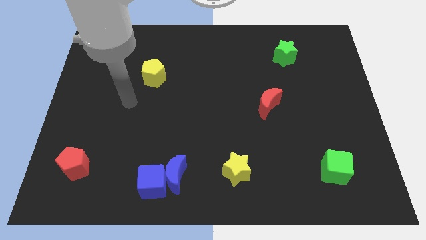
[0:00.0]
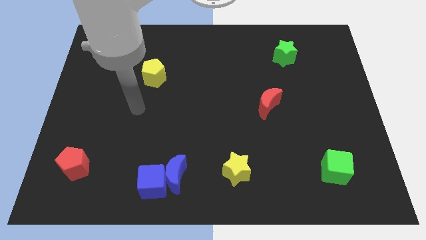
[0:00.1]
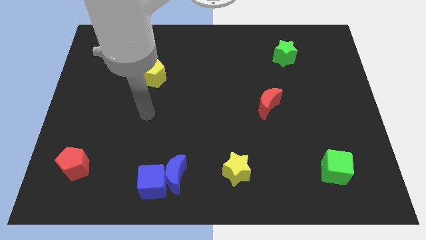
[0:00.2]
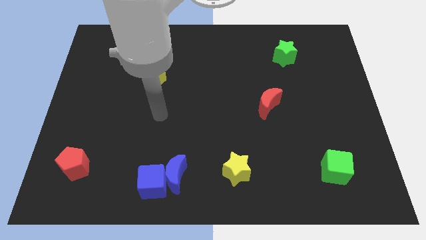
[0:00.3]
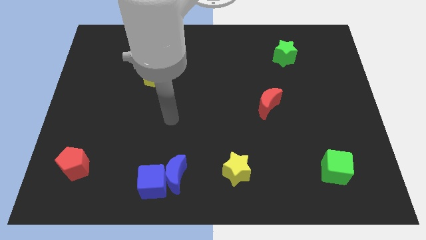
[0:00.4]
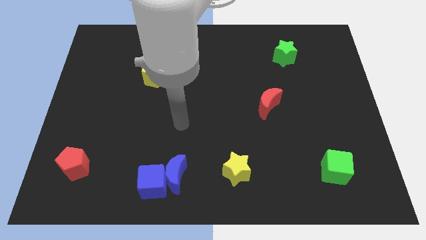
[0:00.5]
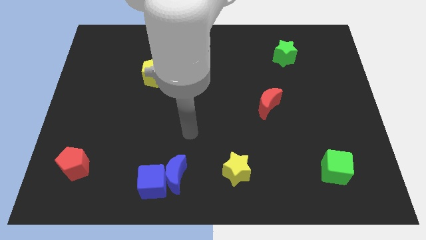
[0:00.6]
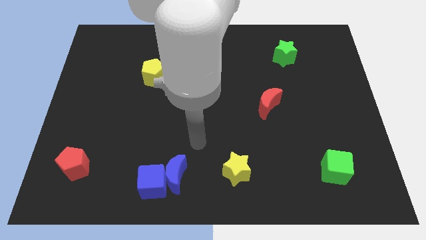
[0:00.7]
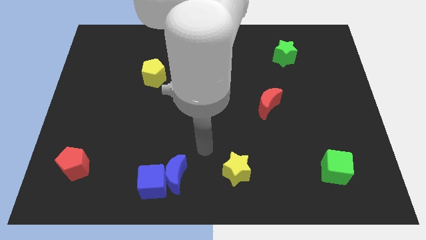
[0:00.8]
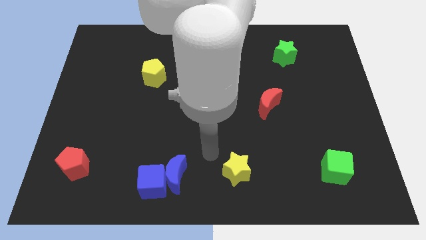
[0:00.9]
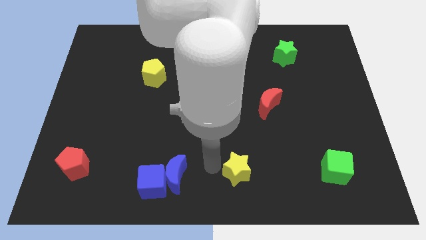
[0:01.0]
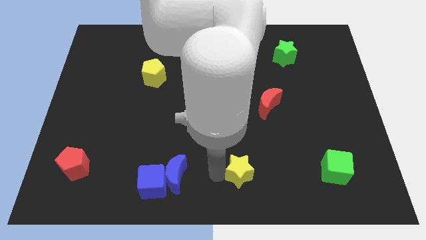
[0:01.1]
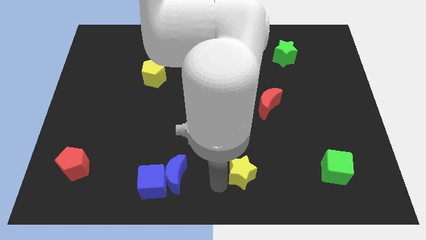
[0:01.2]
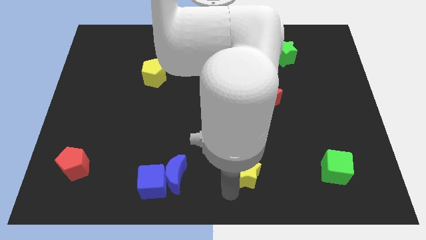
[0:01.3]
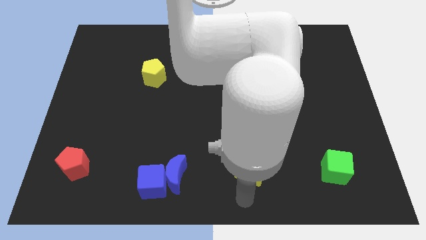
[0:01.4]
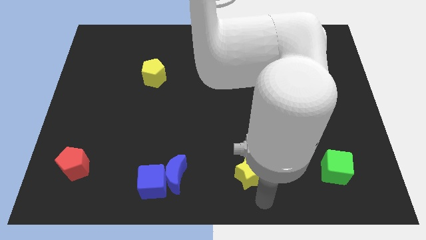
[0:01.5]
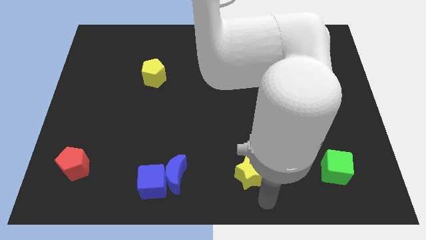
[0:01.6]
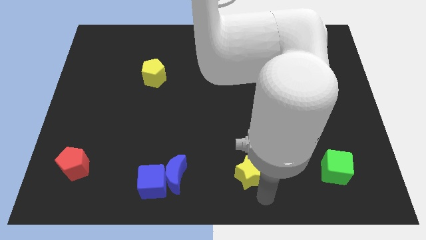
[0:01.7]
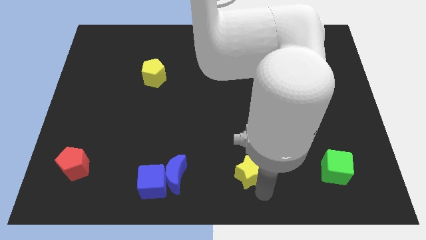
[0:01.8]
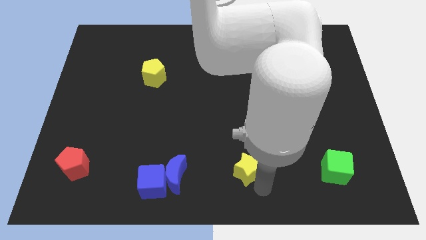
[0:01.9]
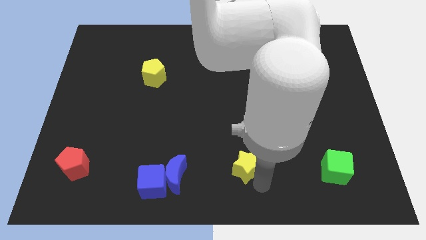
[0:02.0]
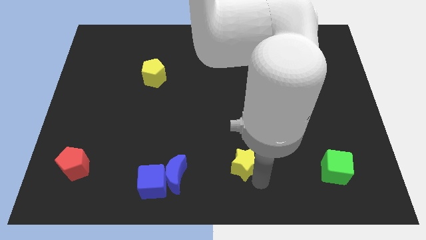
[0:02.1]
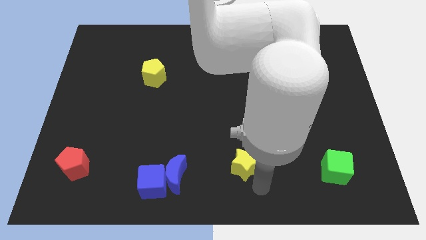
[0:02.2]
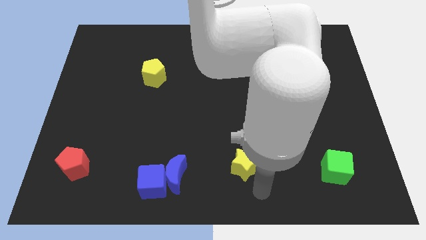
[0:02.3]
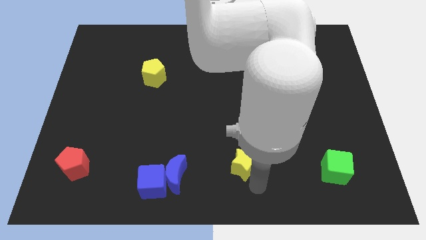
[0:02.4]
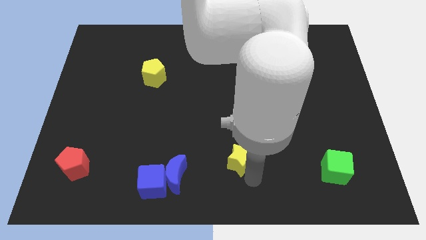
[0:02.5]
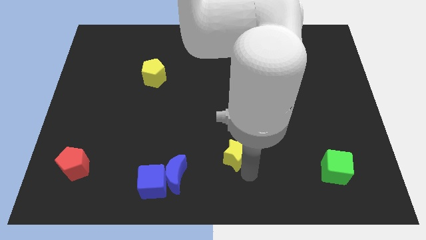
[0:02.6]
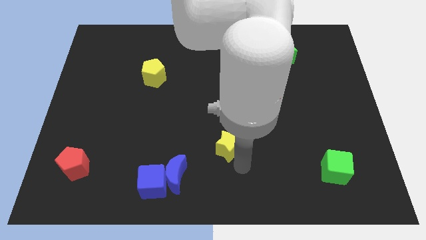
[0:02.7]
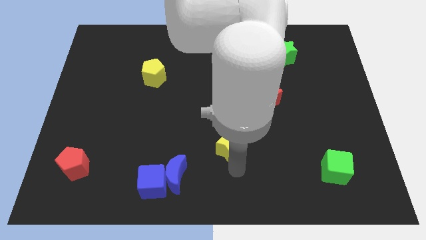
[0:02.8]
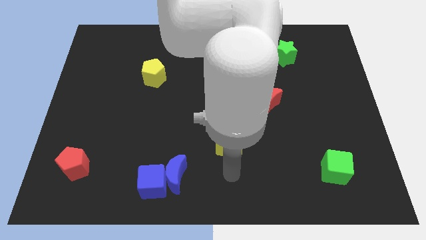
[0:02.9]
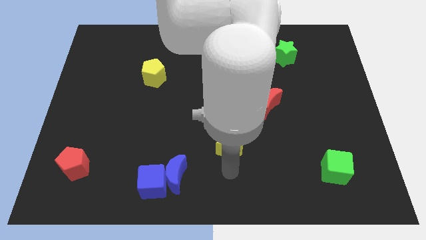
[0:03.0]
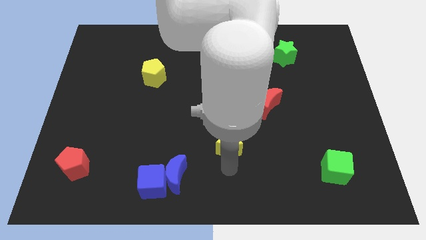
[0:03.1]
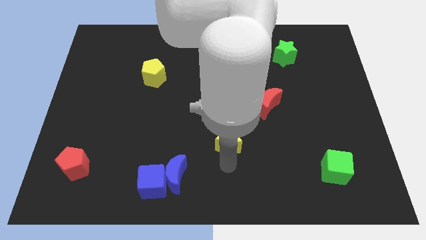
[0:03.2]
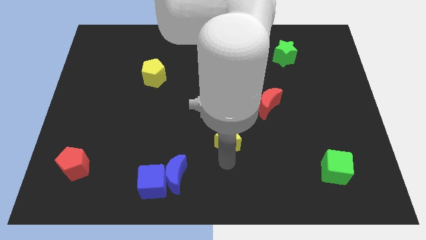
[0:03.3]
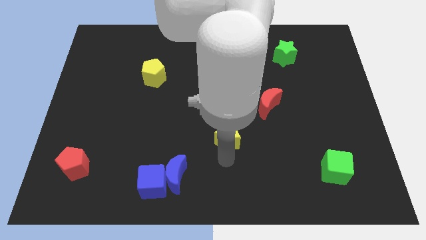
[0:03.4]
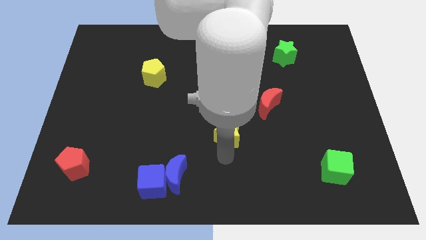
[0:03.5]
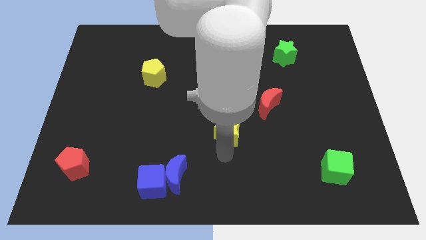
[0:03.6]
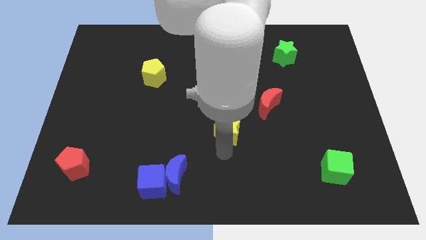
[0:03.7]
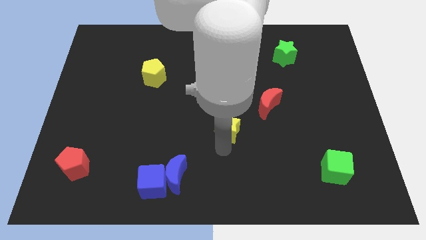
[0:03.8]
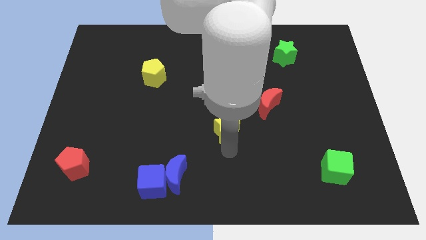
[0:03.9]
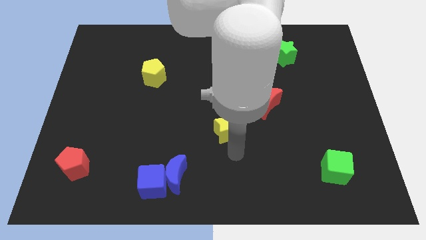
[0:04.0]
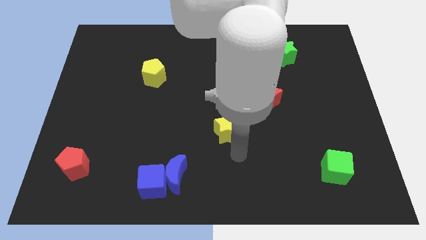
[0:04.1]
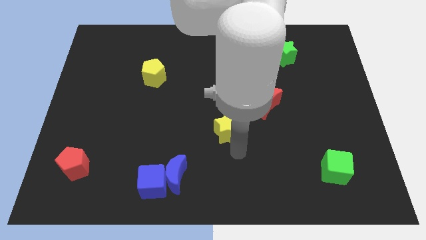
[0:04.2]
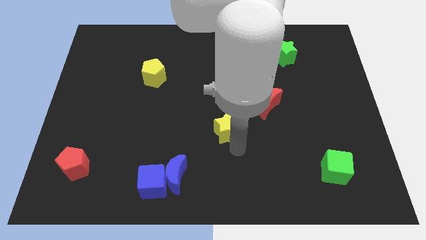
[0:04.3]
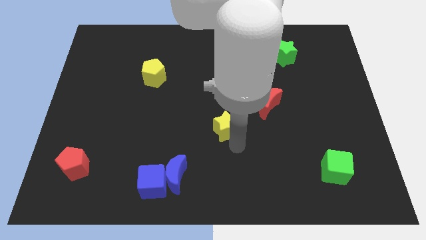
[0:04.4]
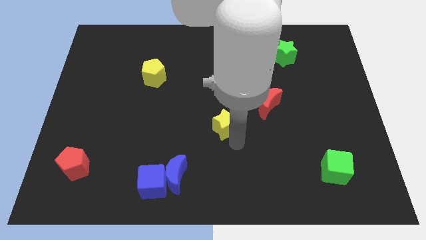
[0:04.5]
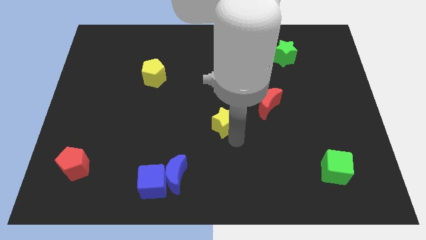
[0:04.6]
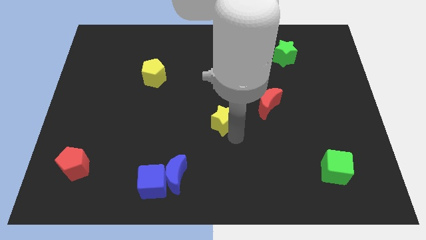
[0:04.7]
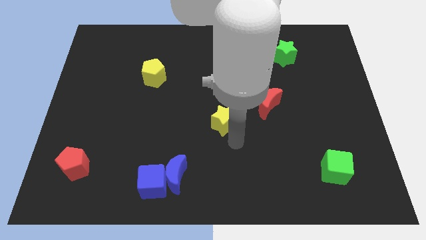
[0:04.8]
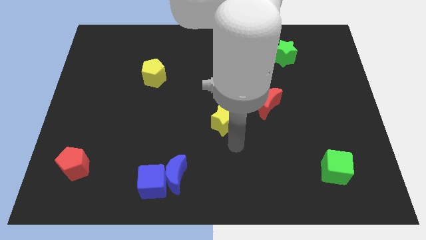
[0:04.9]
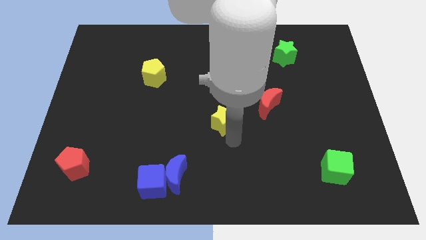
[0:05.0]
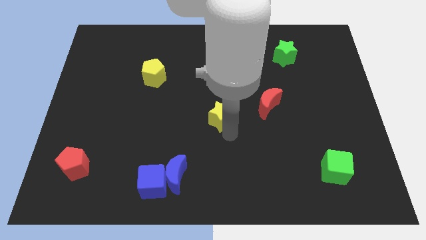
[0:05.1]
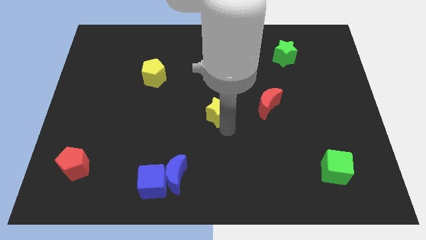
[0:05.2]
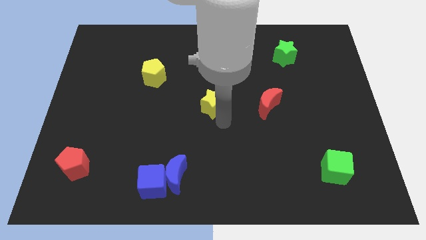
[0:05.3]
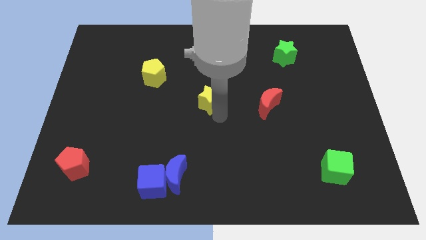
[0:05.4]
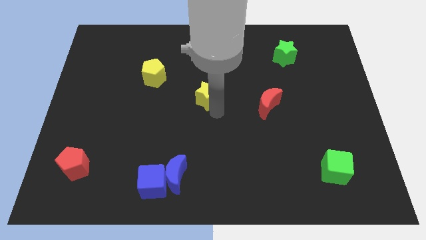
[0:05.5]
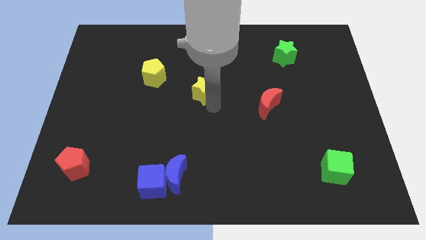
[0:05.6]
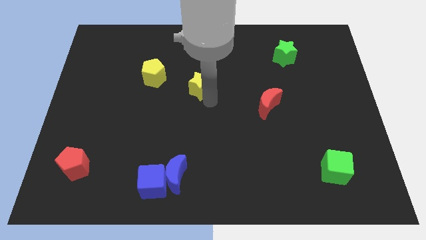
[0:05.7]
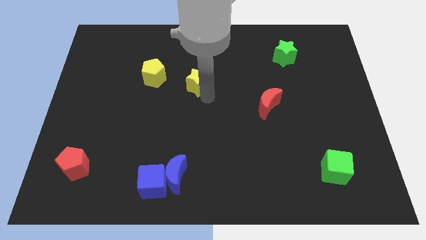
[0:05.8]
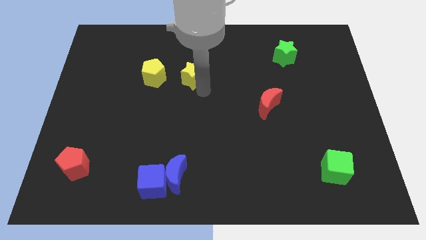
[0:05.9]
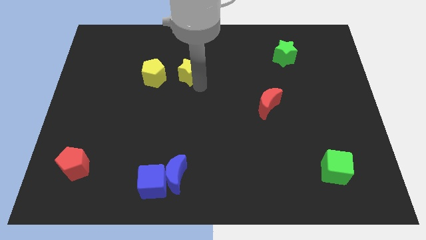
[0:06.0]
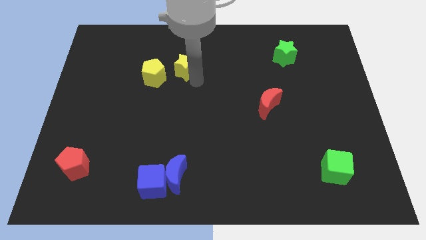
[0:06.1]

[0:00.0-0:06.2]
move the yellow star diagonally up and to the right of the yellow pentagon

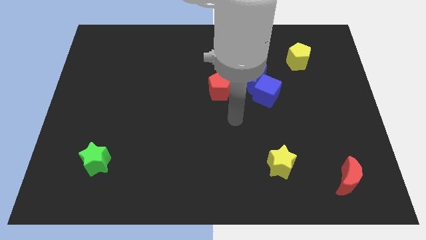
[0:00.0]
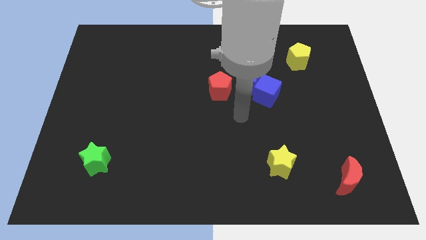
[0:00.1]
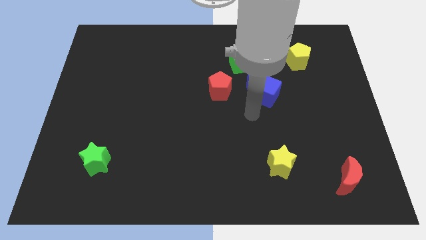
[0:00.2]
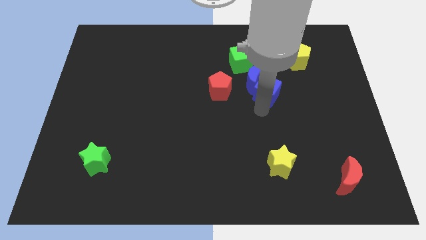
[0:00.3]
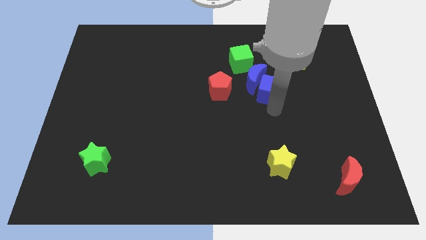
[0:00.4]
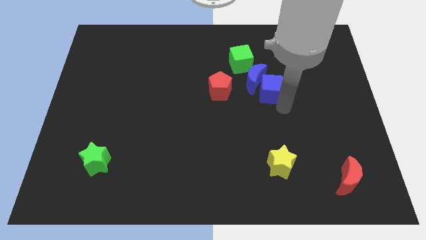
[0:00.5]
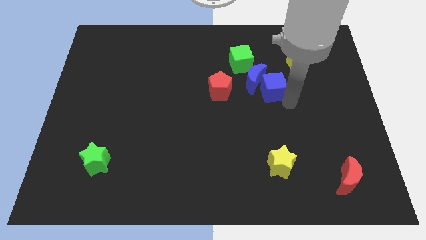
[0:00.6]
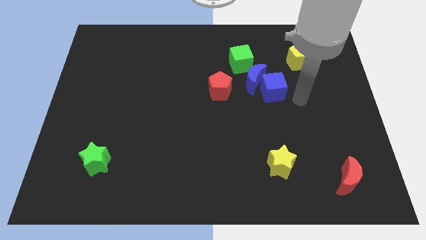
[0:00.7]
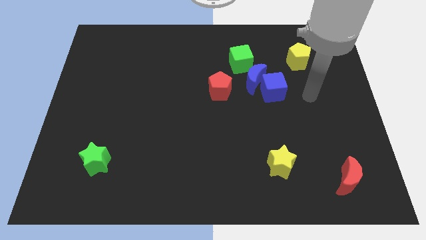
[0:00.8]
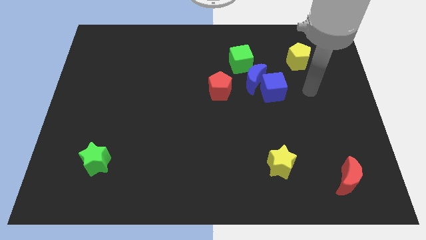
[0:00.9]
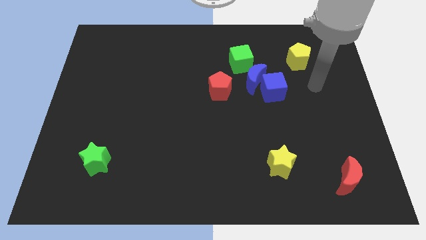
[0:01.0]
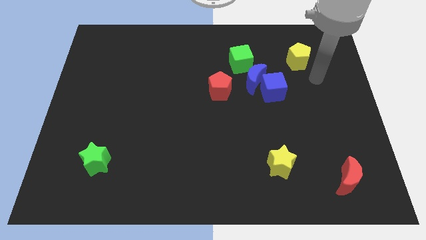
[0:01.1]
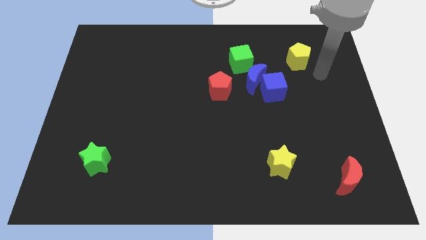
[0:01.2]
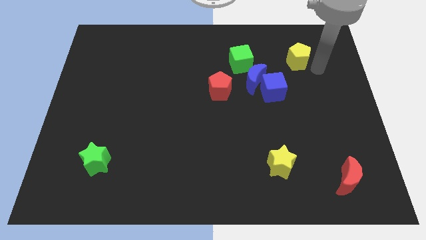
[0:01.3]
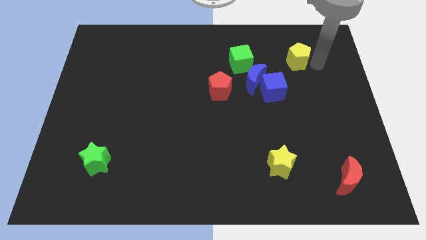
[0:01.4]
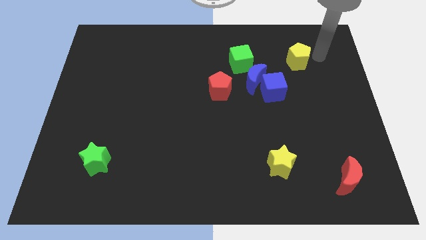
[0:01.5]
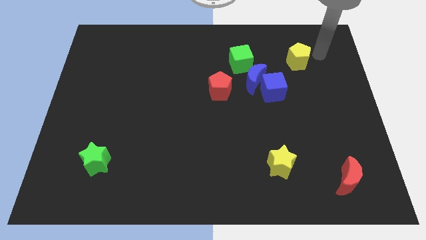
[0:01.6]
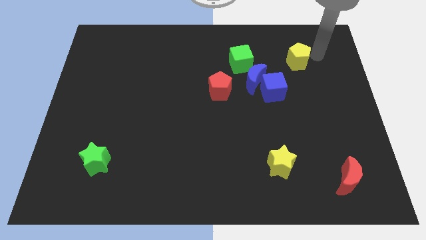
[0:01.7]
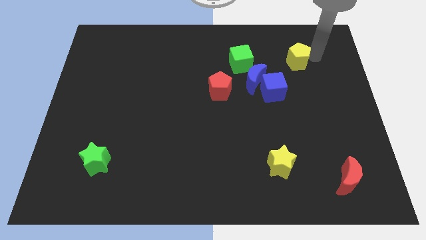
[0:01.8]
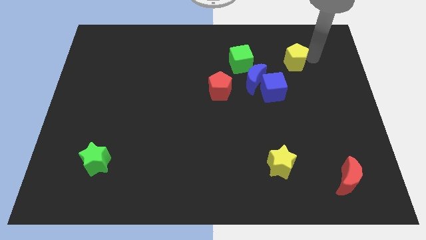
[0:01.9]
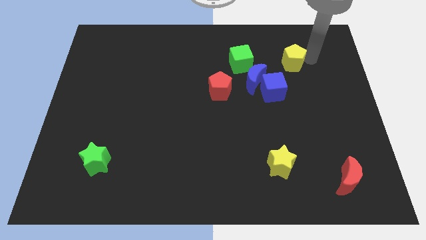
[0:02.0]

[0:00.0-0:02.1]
move the yellow pentagon diagonally up and to the right of the blue moon
